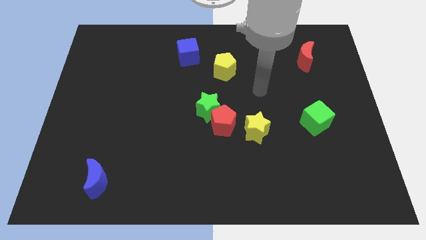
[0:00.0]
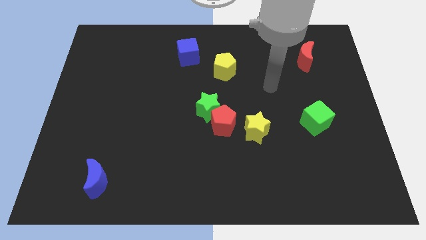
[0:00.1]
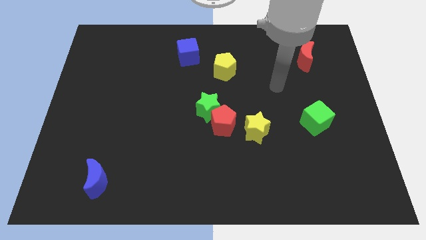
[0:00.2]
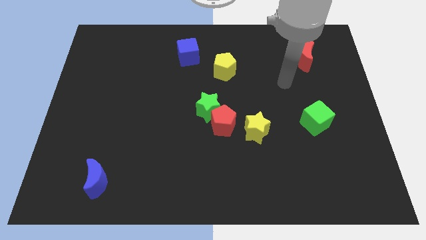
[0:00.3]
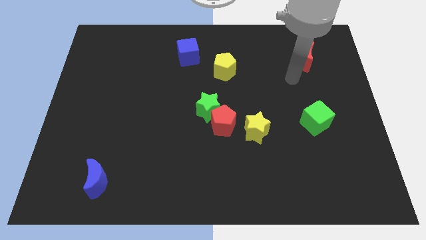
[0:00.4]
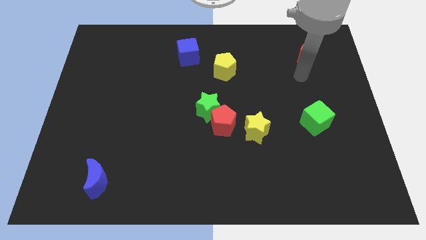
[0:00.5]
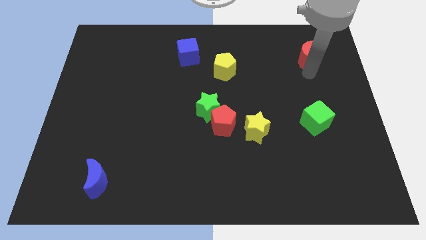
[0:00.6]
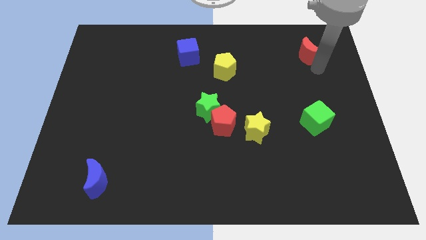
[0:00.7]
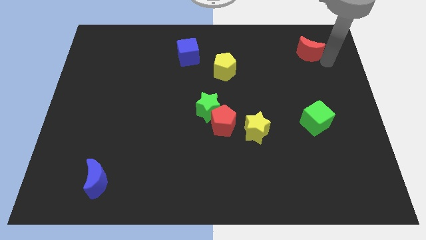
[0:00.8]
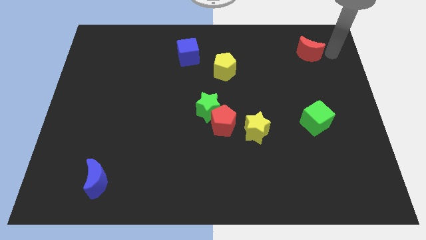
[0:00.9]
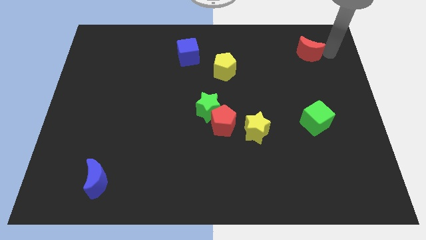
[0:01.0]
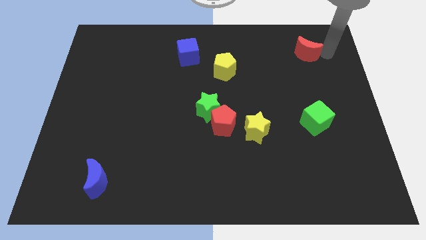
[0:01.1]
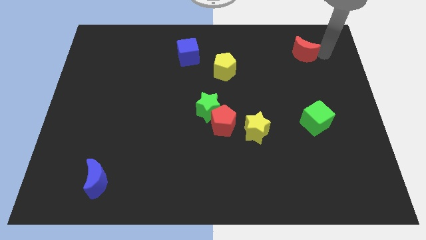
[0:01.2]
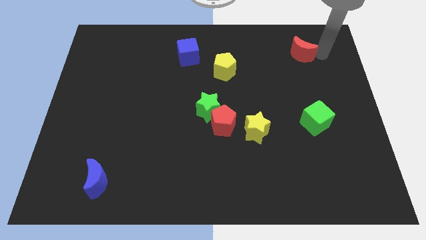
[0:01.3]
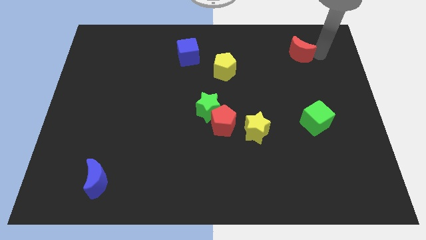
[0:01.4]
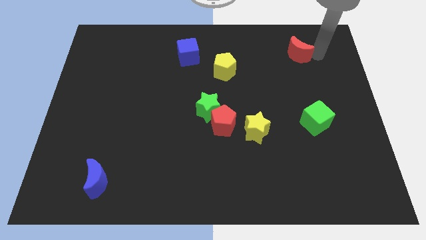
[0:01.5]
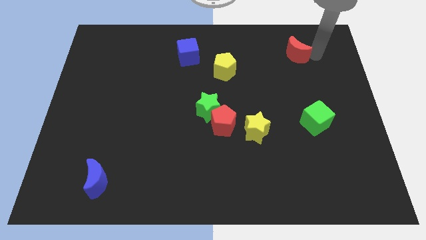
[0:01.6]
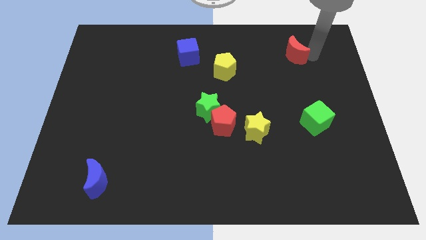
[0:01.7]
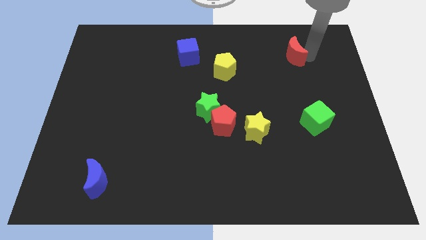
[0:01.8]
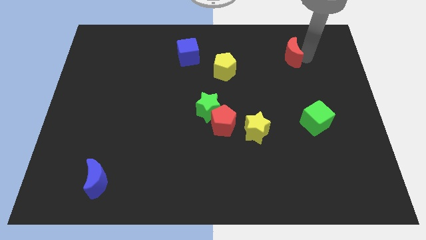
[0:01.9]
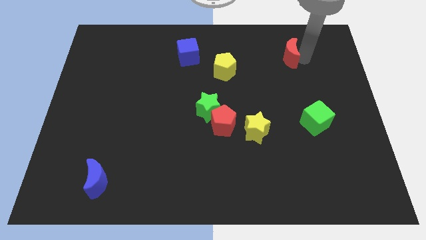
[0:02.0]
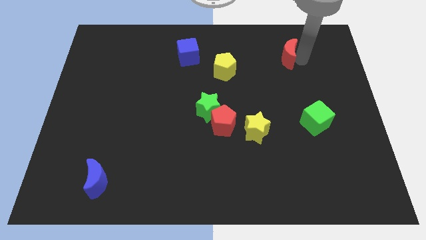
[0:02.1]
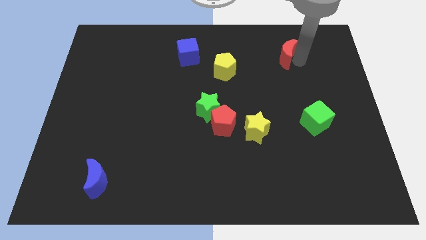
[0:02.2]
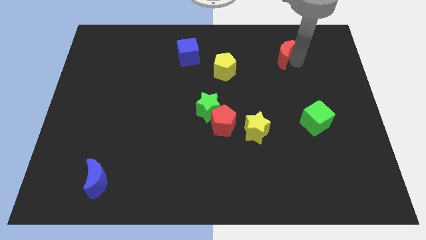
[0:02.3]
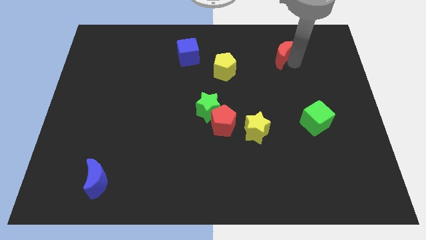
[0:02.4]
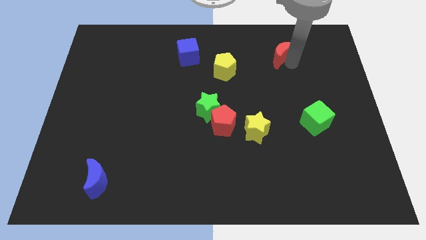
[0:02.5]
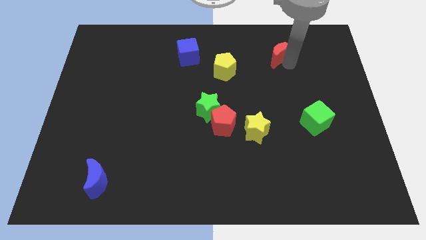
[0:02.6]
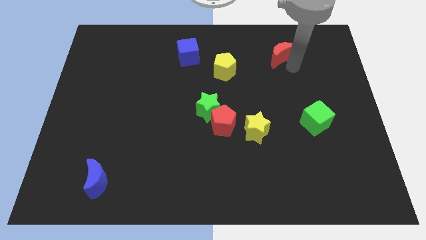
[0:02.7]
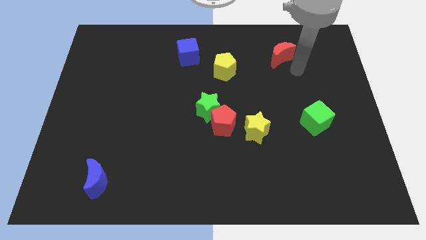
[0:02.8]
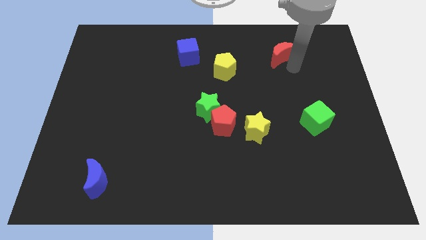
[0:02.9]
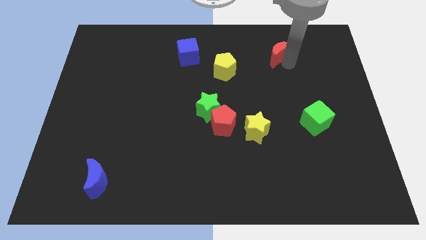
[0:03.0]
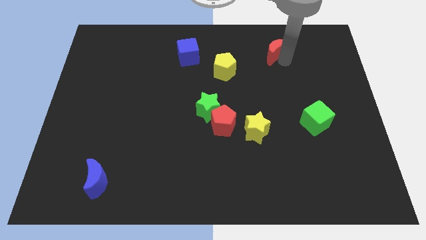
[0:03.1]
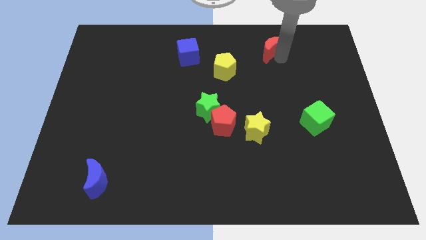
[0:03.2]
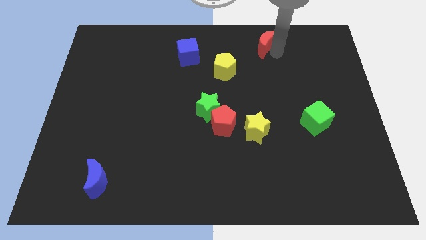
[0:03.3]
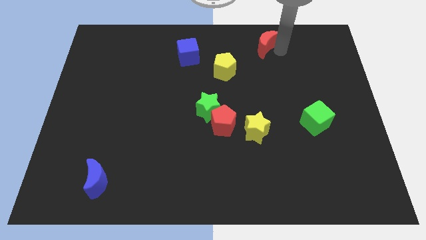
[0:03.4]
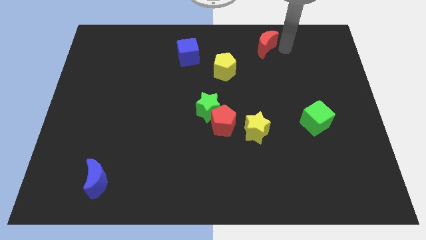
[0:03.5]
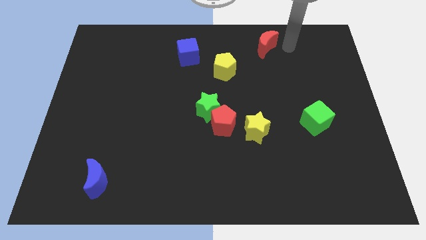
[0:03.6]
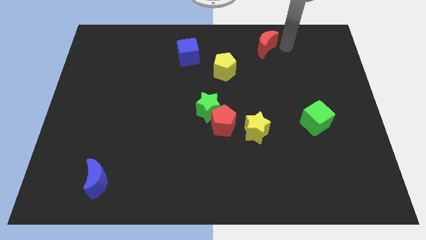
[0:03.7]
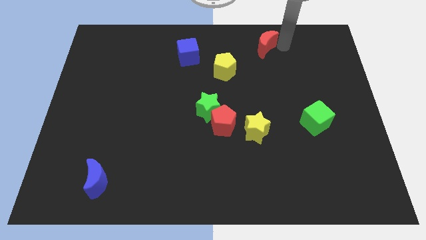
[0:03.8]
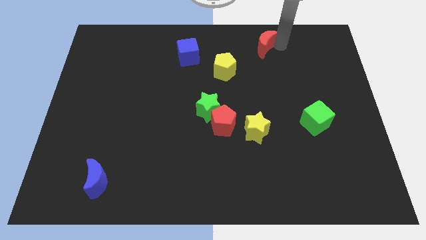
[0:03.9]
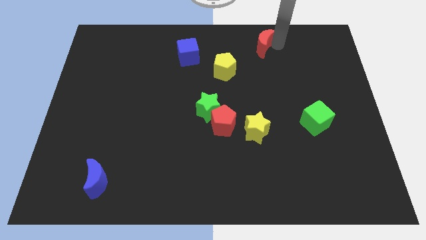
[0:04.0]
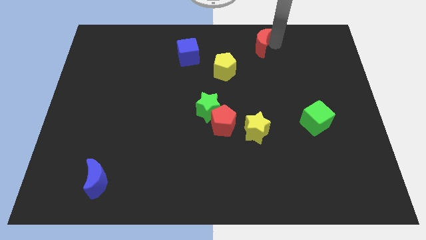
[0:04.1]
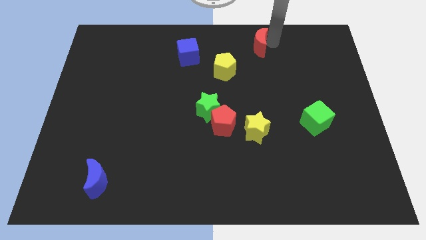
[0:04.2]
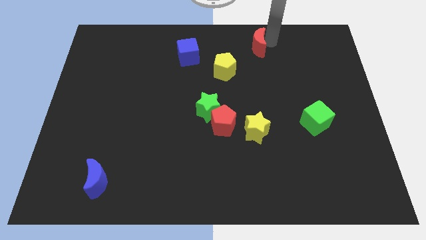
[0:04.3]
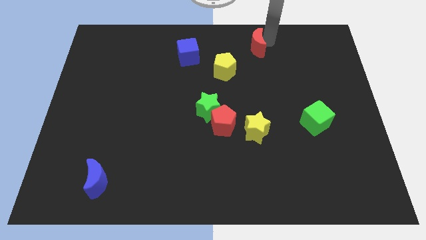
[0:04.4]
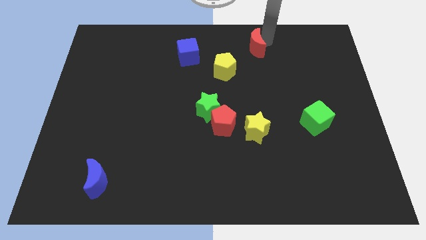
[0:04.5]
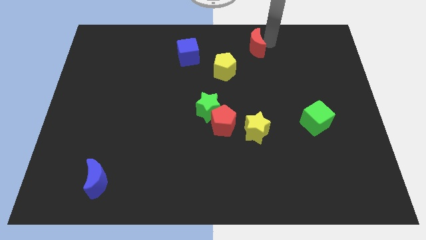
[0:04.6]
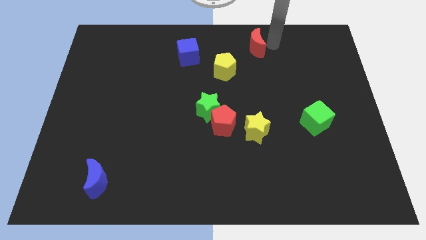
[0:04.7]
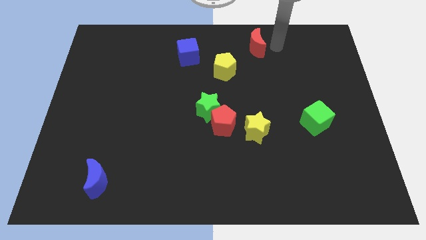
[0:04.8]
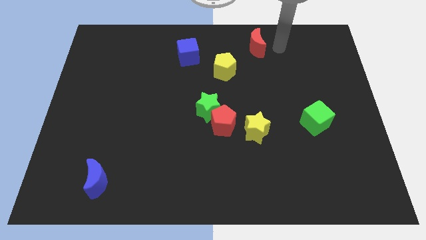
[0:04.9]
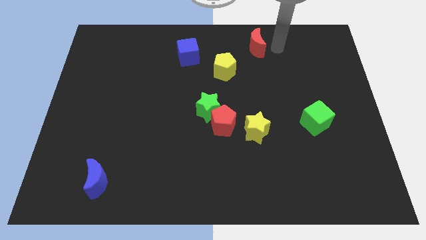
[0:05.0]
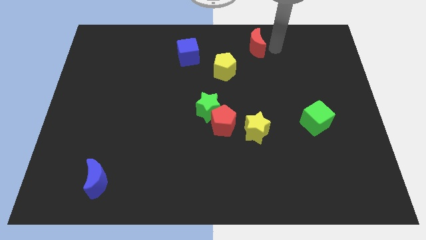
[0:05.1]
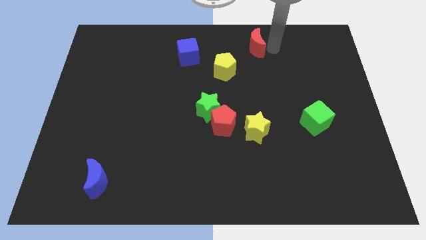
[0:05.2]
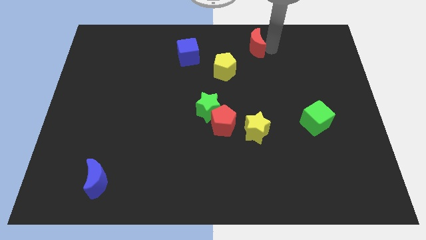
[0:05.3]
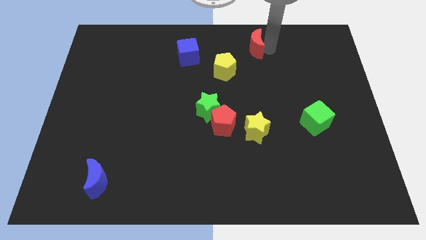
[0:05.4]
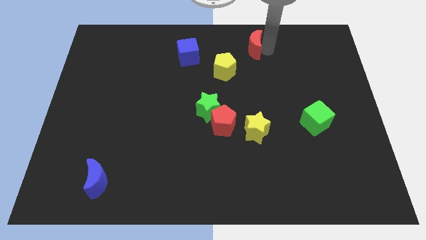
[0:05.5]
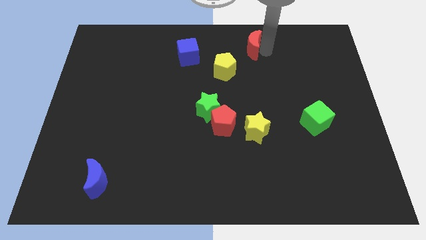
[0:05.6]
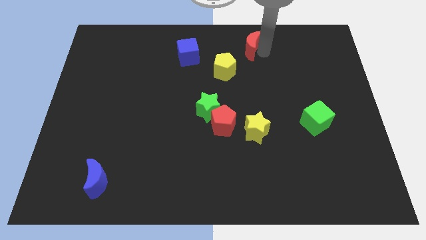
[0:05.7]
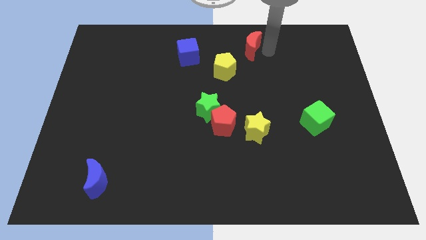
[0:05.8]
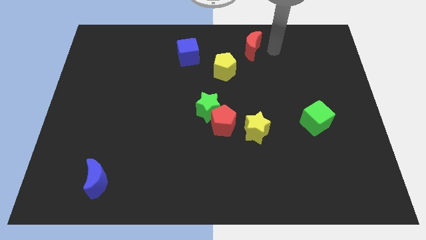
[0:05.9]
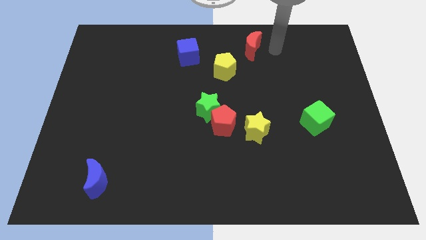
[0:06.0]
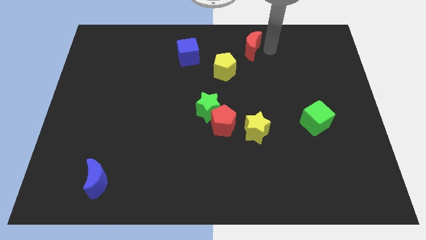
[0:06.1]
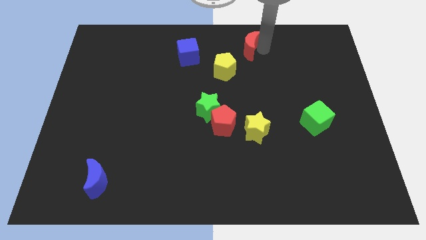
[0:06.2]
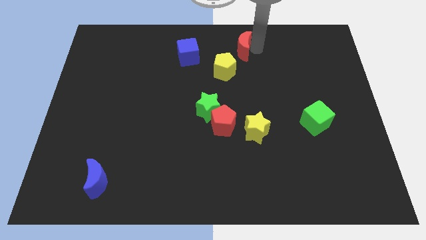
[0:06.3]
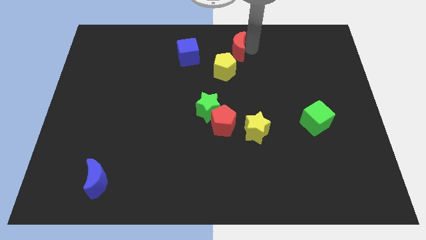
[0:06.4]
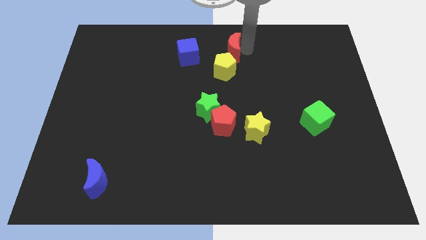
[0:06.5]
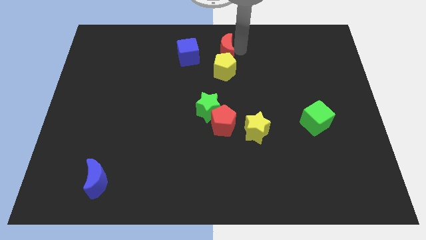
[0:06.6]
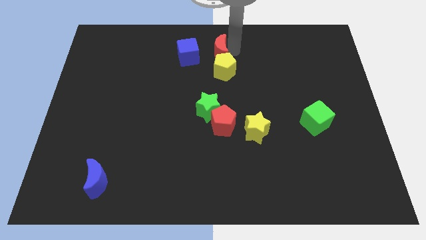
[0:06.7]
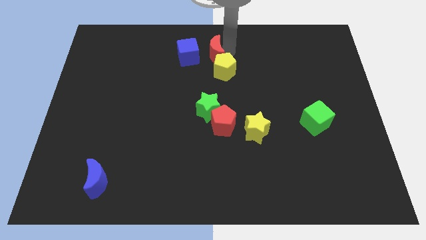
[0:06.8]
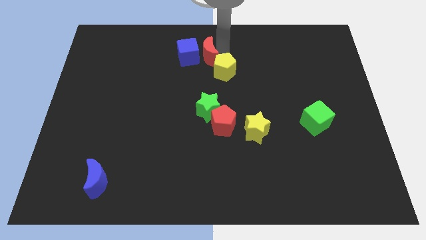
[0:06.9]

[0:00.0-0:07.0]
put the red moon close to the blue cube
